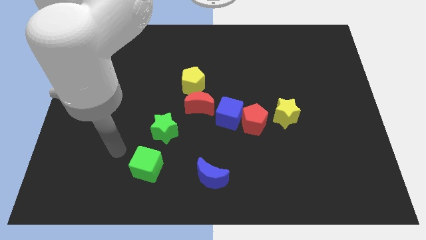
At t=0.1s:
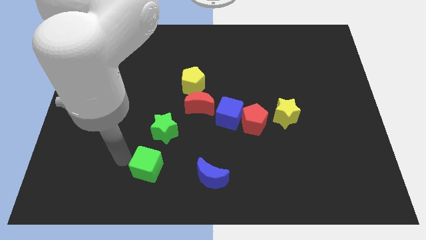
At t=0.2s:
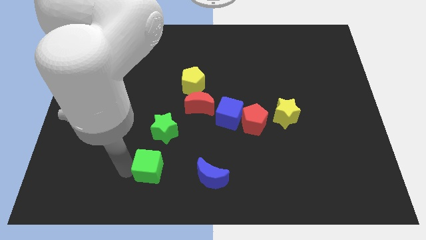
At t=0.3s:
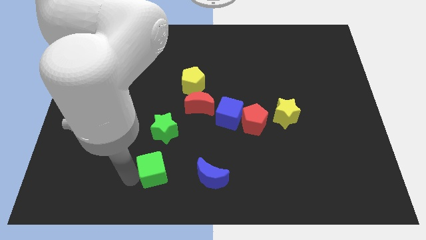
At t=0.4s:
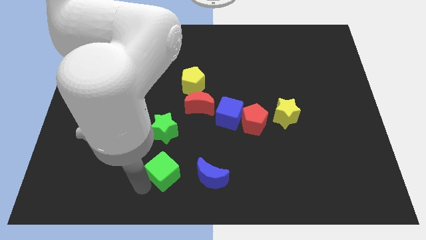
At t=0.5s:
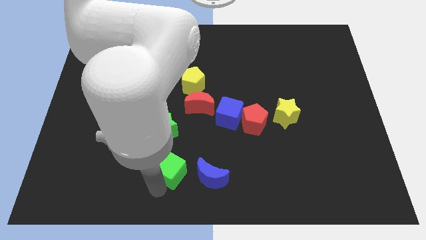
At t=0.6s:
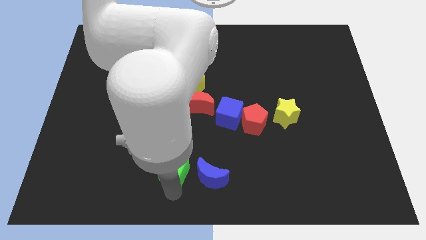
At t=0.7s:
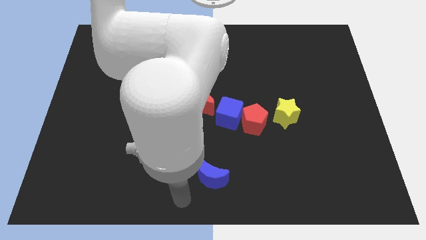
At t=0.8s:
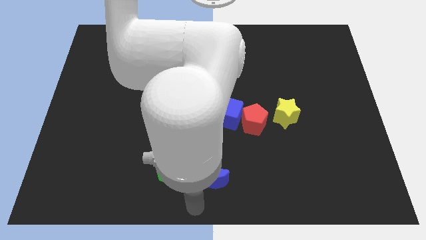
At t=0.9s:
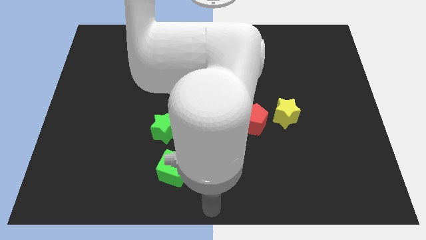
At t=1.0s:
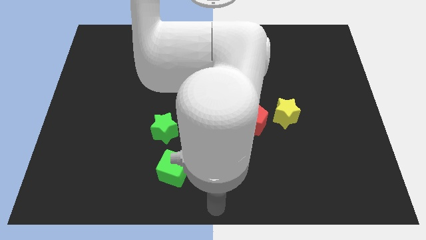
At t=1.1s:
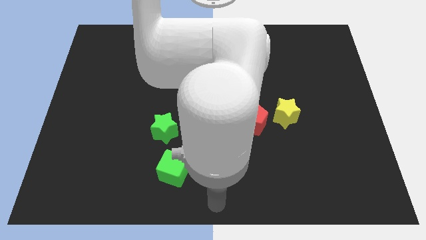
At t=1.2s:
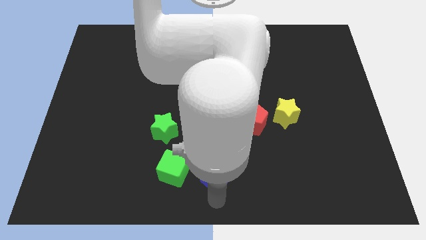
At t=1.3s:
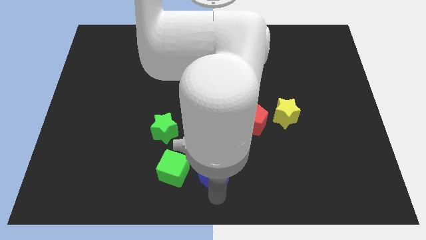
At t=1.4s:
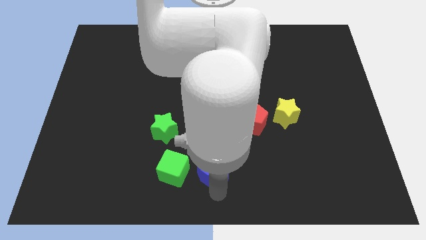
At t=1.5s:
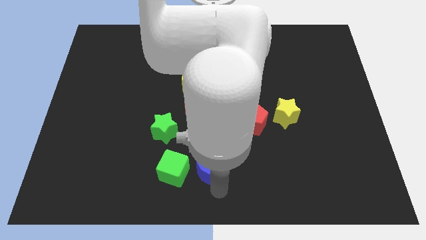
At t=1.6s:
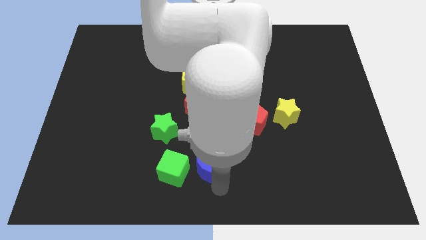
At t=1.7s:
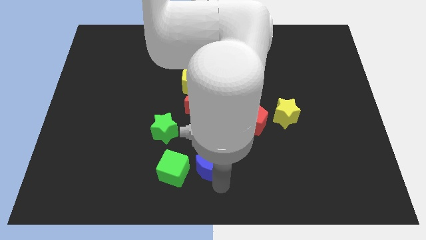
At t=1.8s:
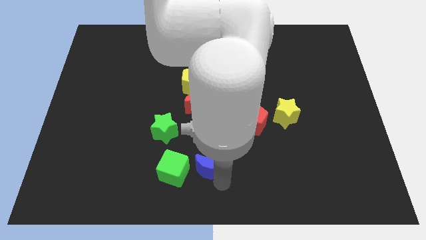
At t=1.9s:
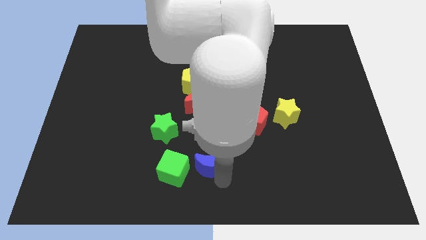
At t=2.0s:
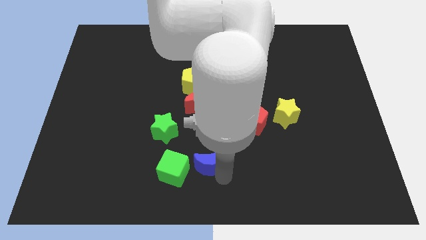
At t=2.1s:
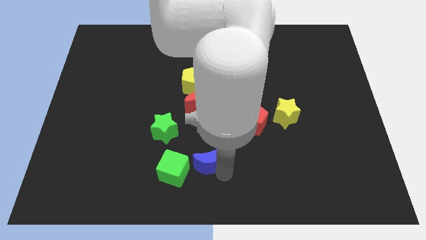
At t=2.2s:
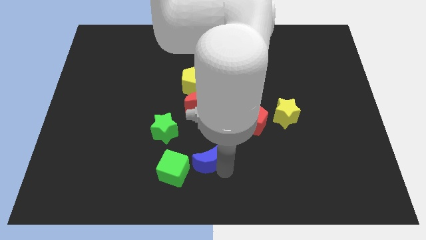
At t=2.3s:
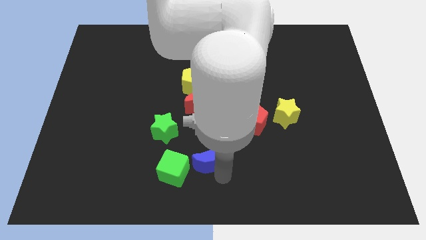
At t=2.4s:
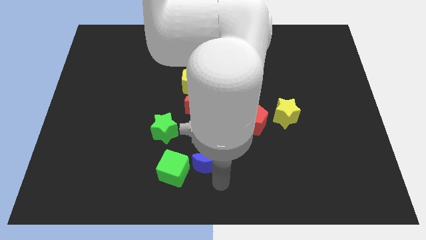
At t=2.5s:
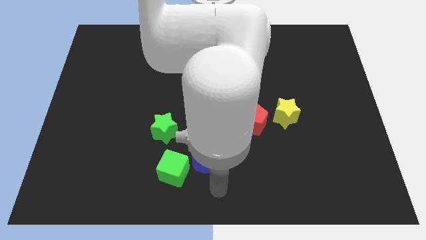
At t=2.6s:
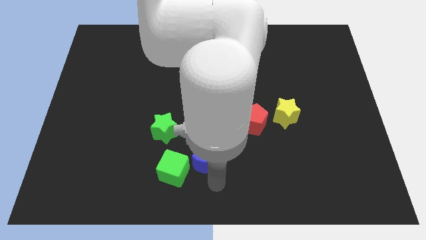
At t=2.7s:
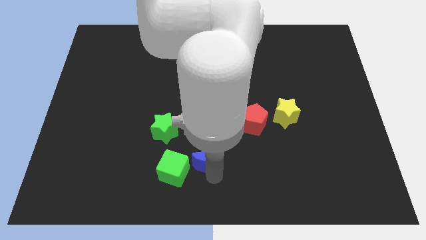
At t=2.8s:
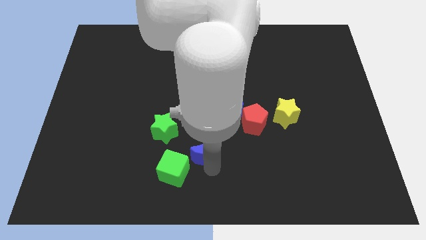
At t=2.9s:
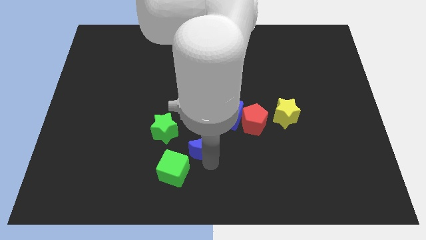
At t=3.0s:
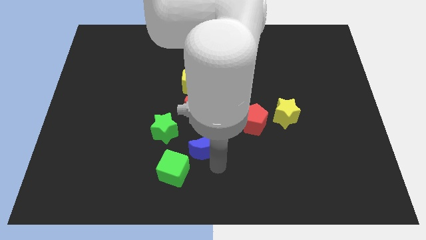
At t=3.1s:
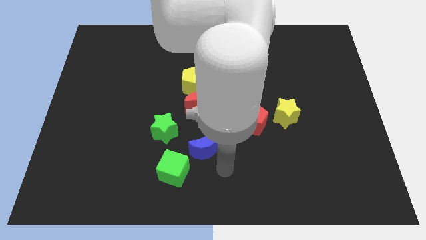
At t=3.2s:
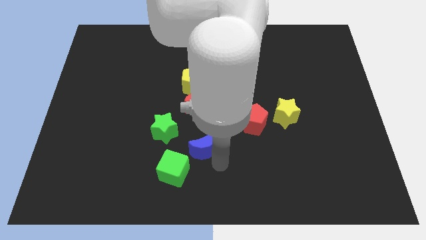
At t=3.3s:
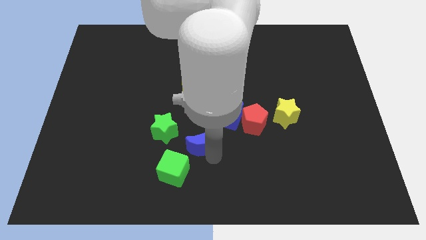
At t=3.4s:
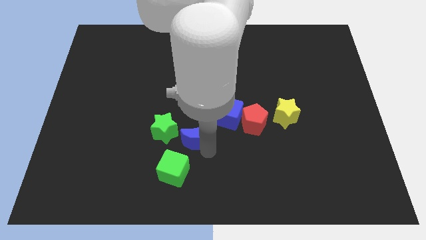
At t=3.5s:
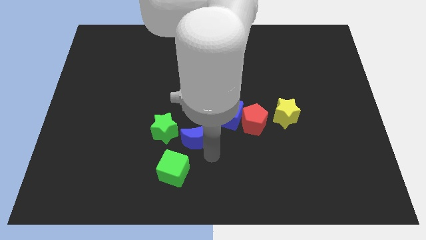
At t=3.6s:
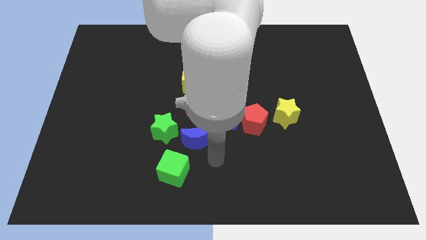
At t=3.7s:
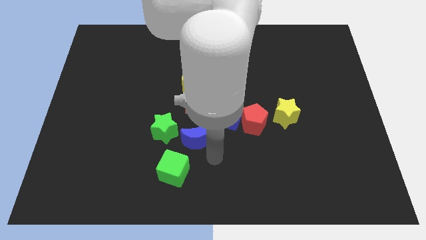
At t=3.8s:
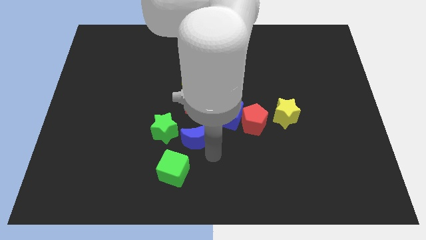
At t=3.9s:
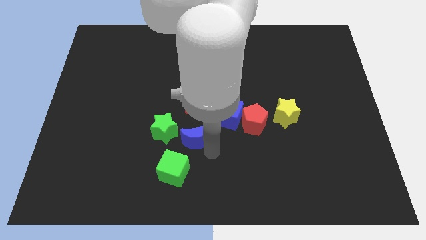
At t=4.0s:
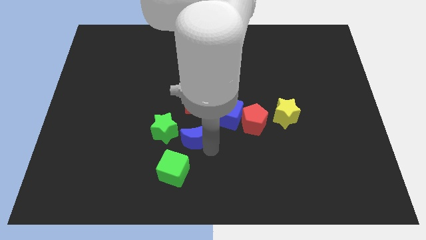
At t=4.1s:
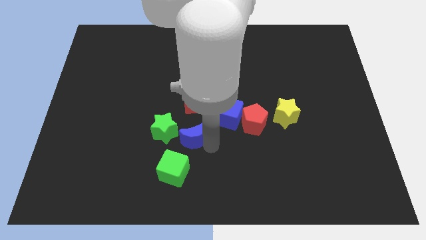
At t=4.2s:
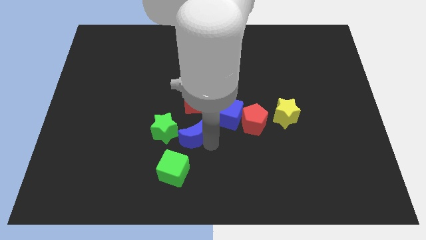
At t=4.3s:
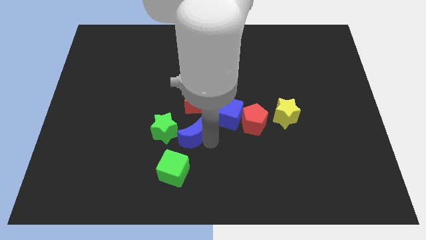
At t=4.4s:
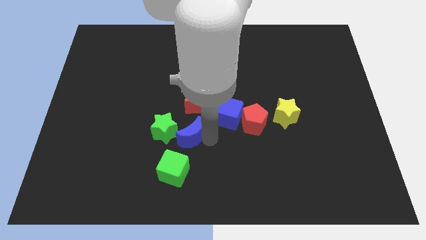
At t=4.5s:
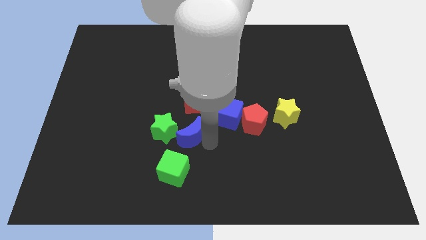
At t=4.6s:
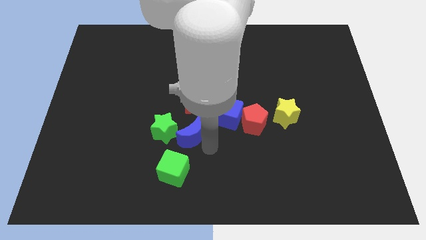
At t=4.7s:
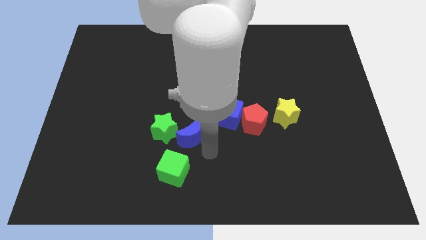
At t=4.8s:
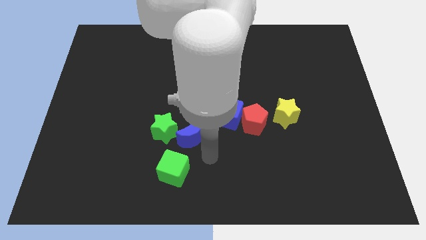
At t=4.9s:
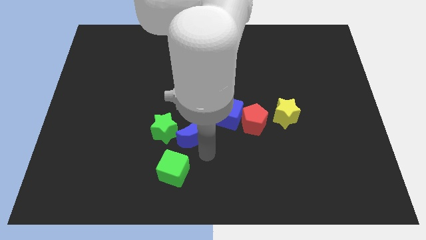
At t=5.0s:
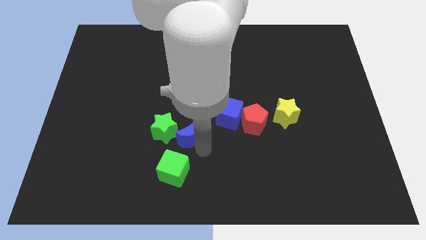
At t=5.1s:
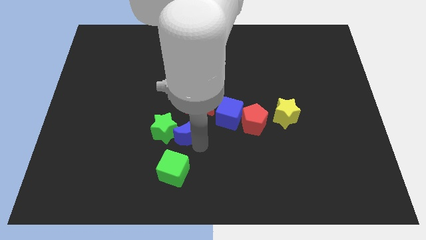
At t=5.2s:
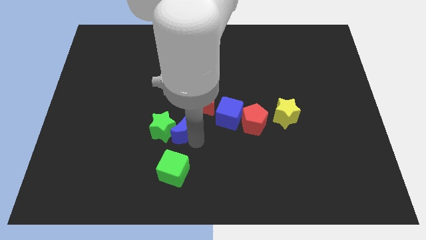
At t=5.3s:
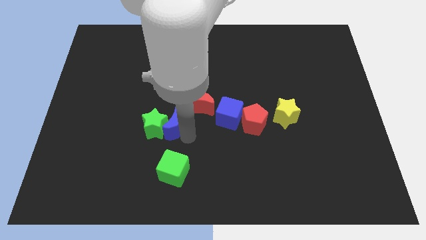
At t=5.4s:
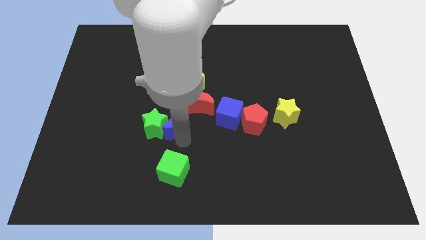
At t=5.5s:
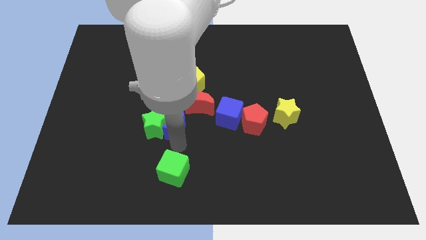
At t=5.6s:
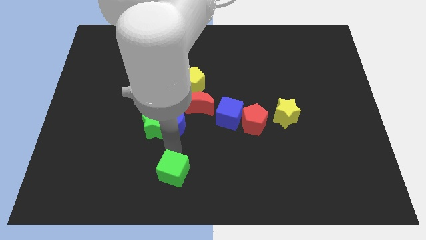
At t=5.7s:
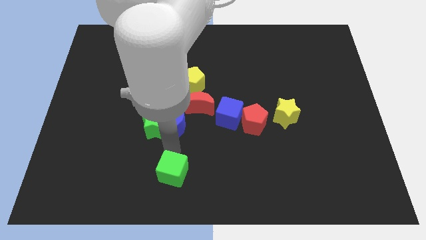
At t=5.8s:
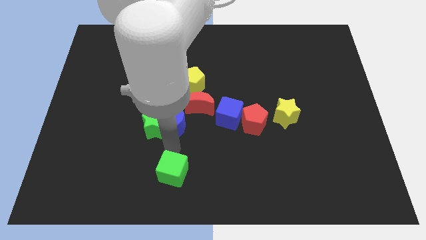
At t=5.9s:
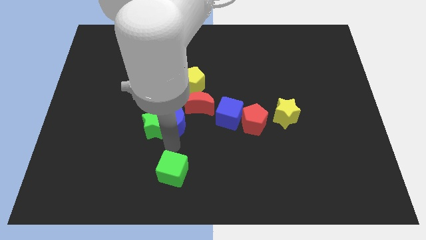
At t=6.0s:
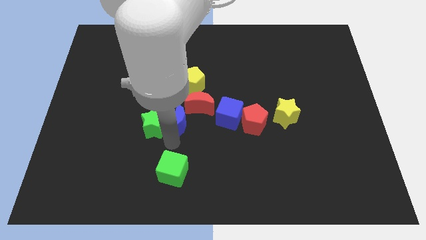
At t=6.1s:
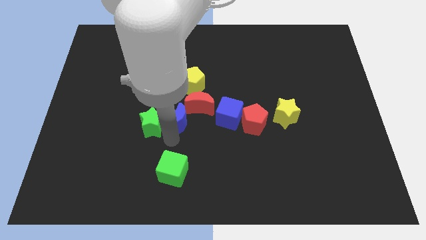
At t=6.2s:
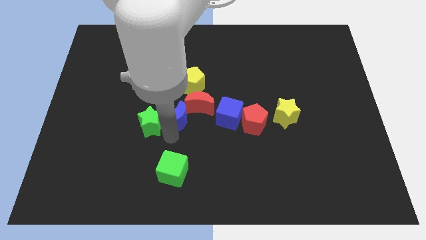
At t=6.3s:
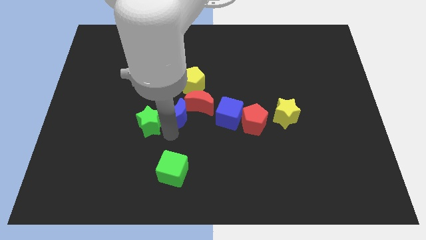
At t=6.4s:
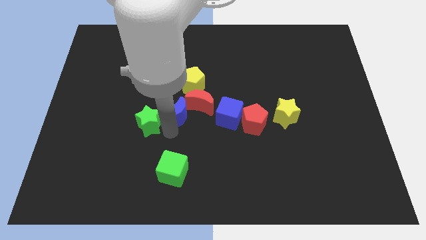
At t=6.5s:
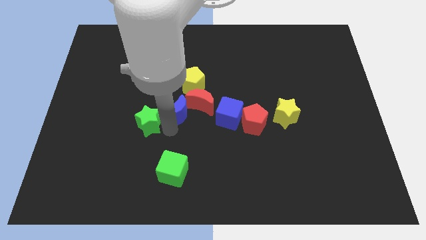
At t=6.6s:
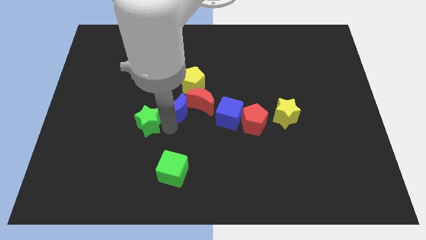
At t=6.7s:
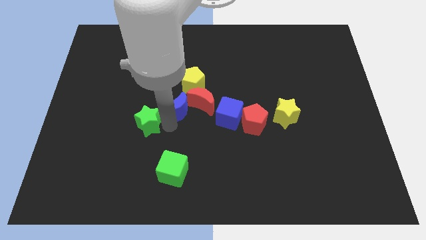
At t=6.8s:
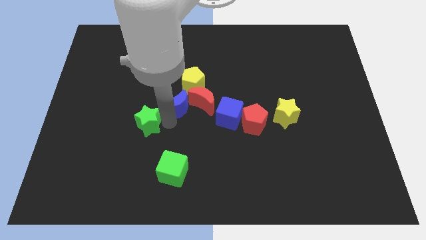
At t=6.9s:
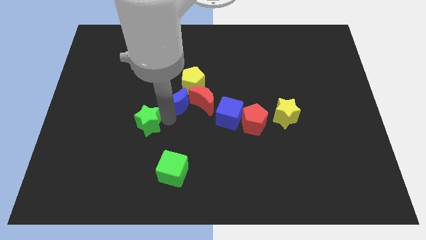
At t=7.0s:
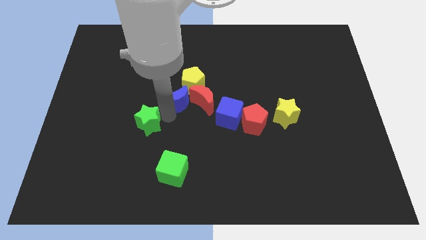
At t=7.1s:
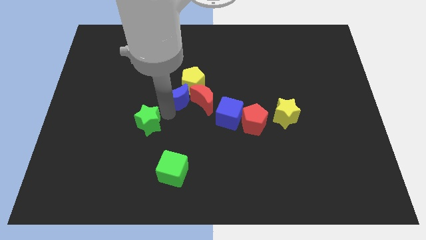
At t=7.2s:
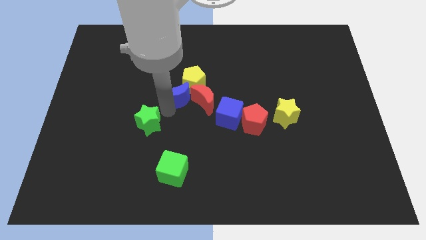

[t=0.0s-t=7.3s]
slide the blue moon towards the yellow pentagon

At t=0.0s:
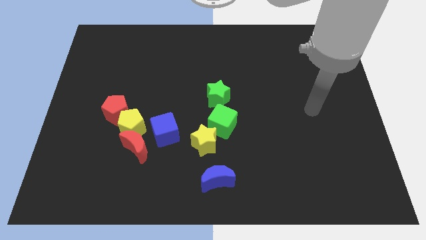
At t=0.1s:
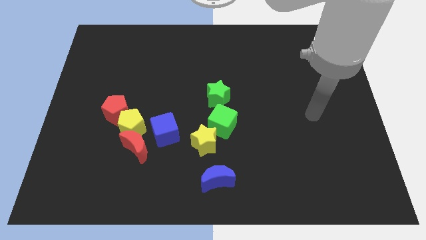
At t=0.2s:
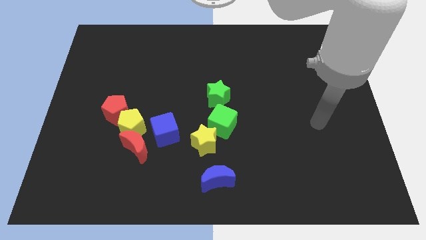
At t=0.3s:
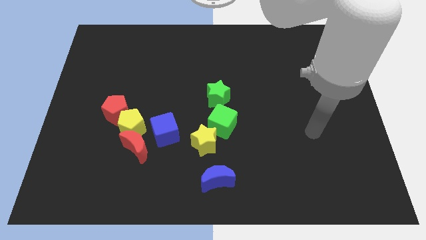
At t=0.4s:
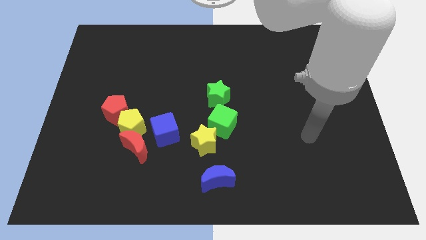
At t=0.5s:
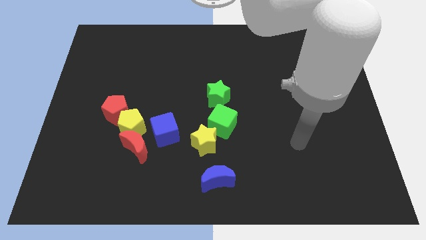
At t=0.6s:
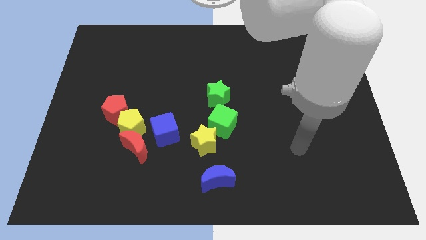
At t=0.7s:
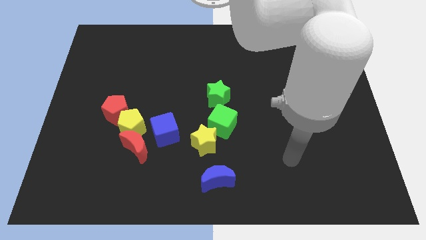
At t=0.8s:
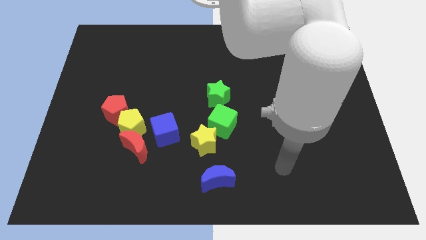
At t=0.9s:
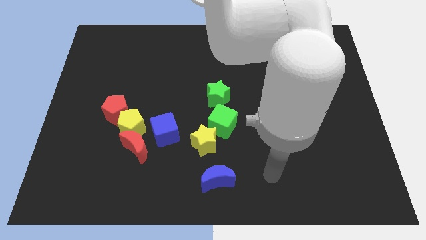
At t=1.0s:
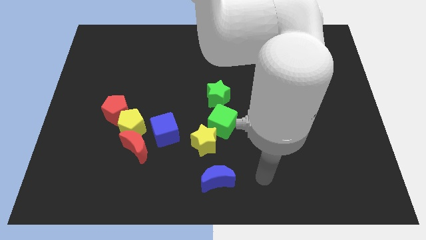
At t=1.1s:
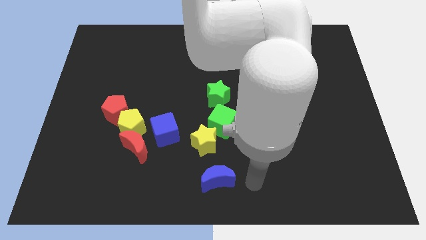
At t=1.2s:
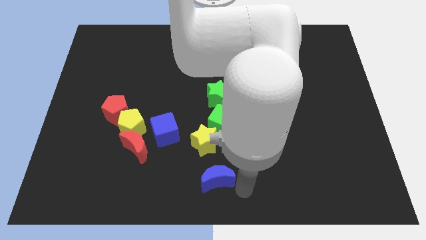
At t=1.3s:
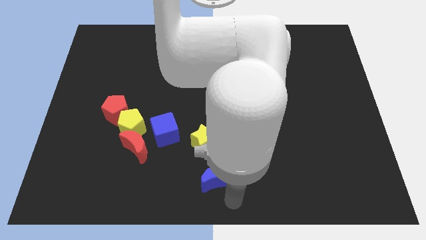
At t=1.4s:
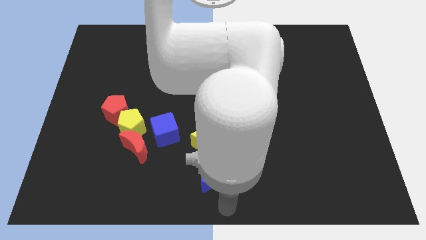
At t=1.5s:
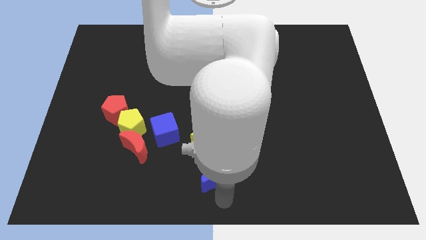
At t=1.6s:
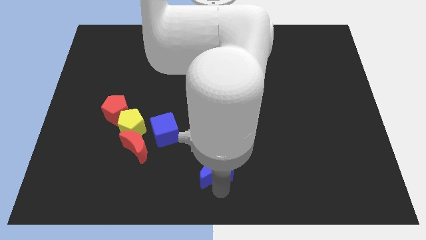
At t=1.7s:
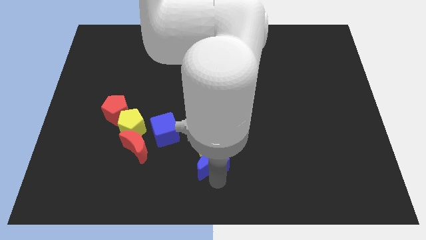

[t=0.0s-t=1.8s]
put the blue moon to the yellow star
